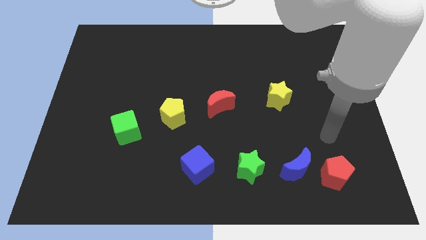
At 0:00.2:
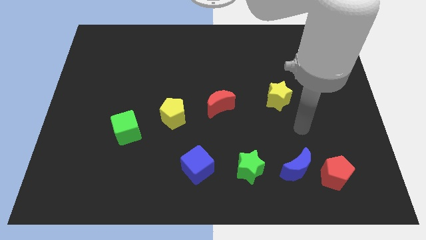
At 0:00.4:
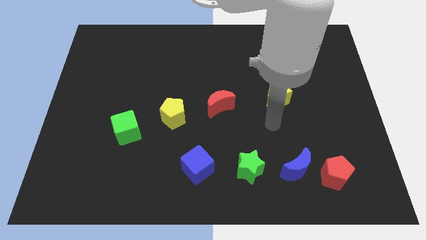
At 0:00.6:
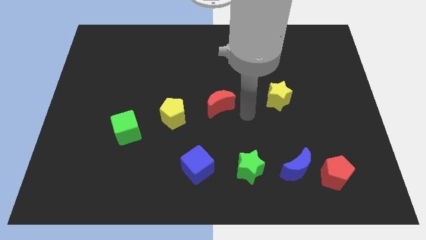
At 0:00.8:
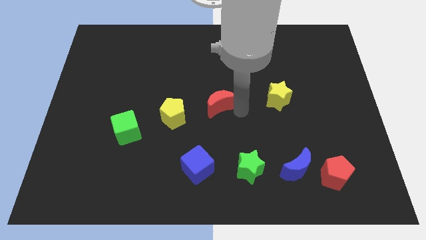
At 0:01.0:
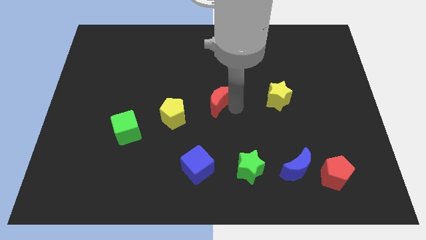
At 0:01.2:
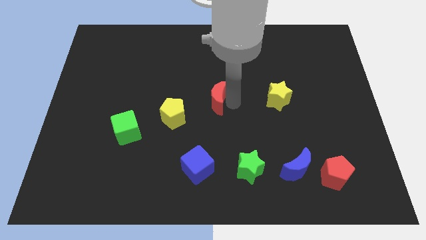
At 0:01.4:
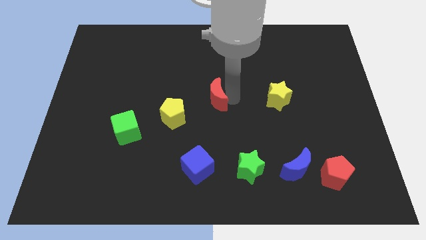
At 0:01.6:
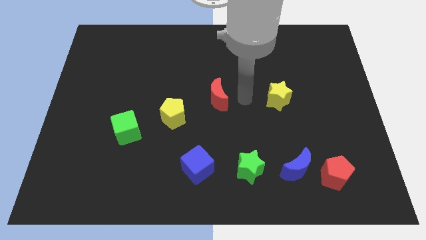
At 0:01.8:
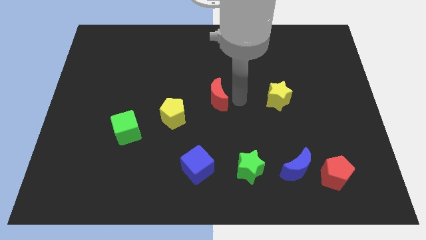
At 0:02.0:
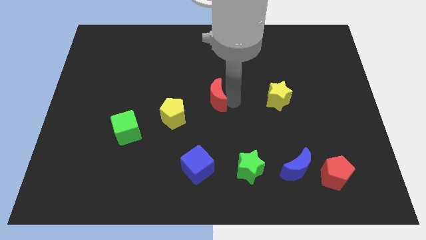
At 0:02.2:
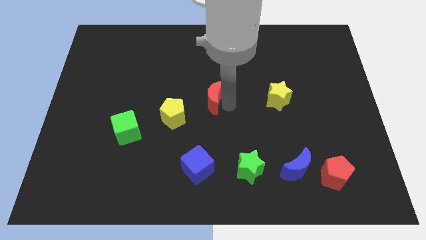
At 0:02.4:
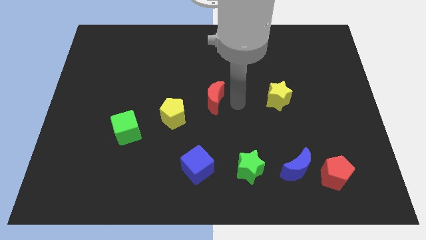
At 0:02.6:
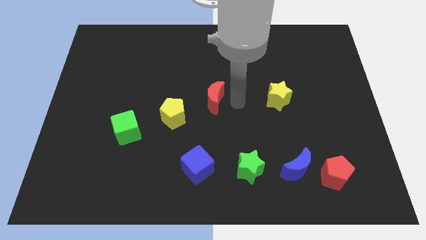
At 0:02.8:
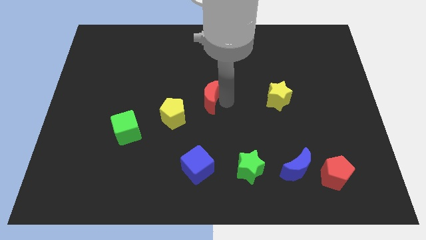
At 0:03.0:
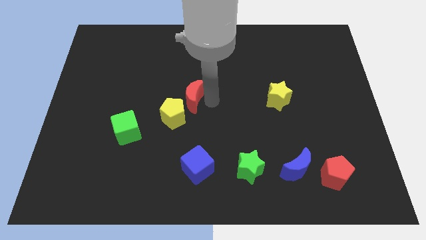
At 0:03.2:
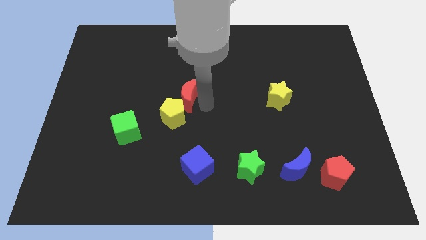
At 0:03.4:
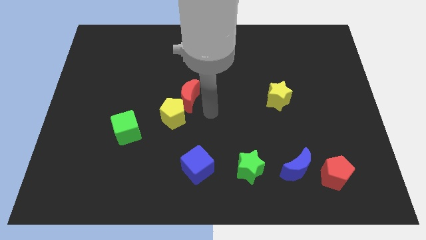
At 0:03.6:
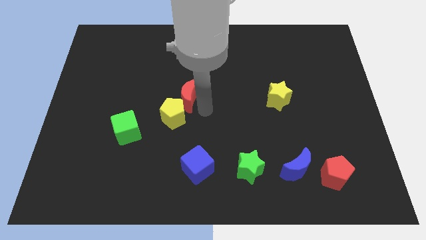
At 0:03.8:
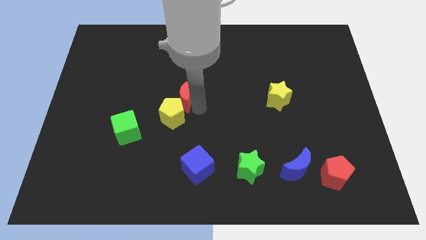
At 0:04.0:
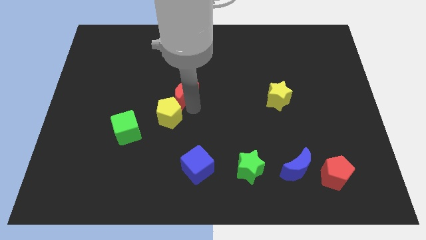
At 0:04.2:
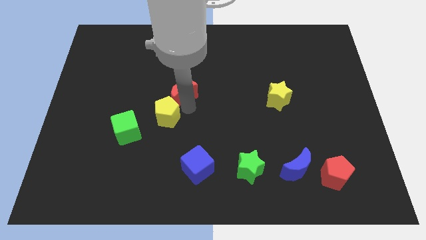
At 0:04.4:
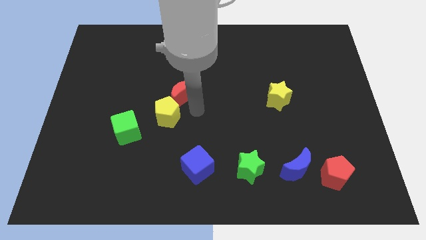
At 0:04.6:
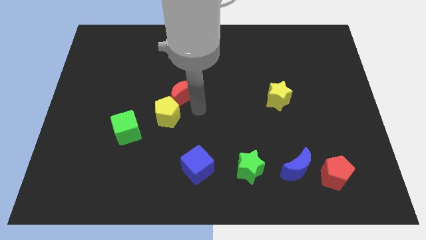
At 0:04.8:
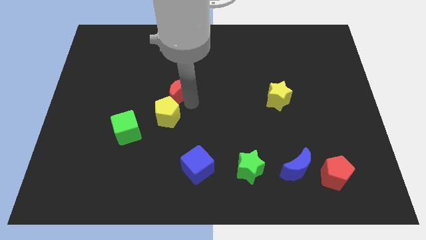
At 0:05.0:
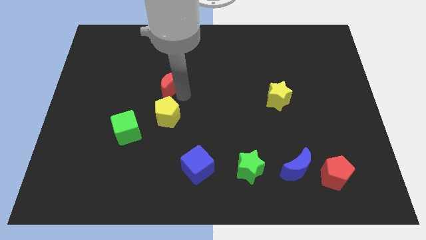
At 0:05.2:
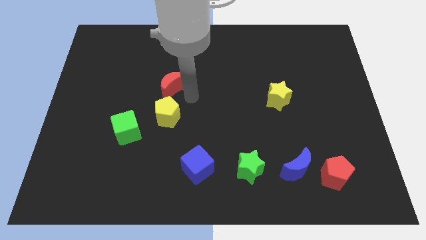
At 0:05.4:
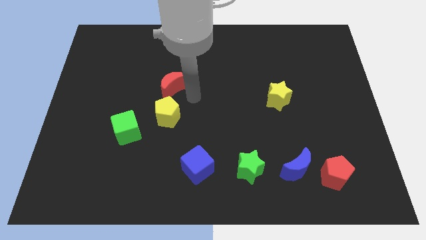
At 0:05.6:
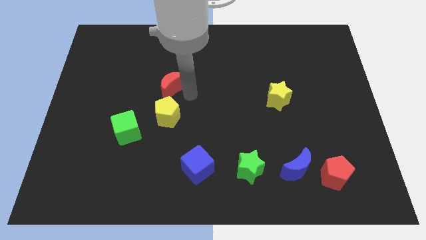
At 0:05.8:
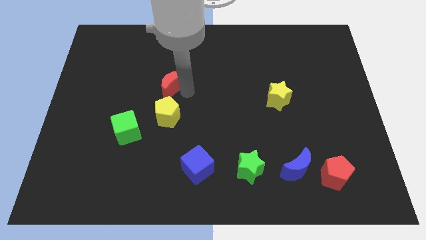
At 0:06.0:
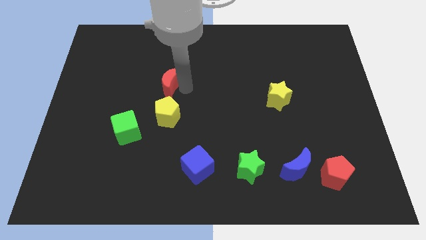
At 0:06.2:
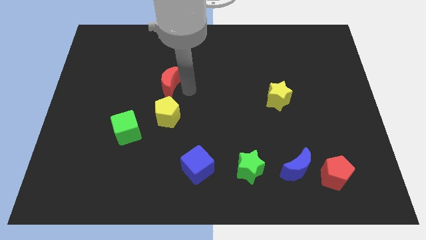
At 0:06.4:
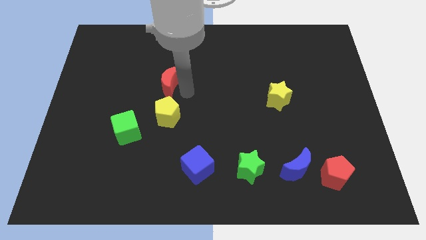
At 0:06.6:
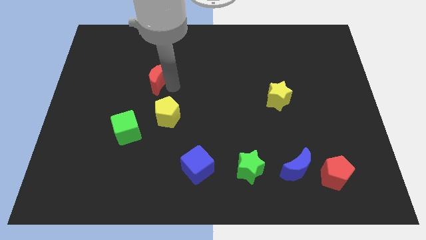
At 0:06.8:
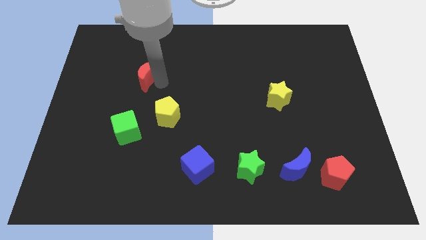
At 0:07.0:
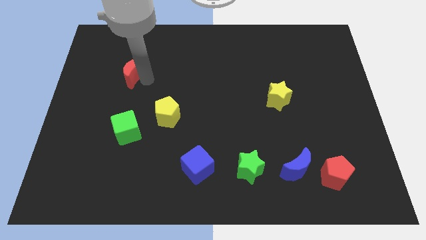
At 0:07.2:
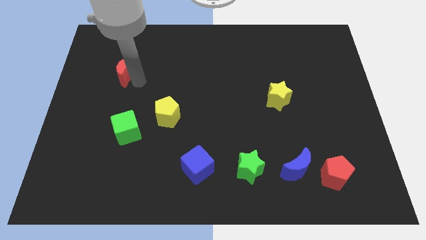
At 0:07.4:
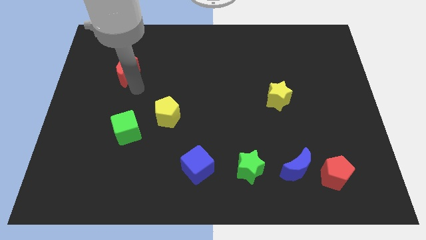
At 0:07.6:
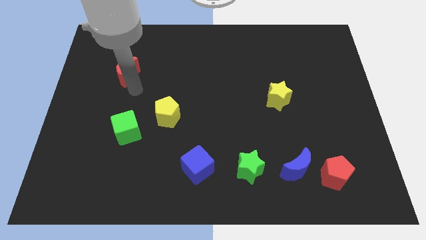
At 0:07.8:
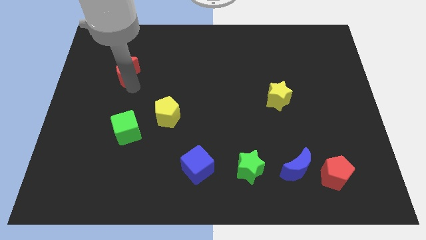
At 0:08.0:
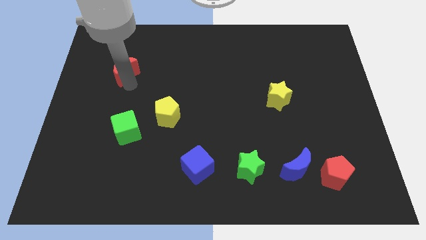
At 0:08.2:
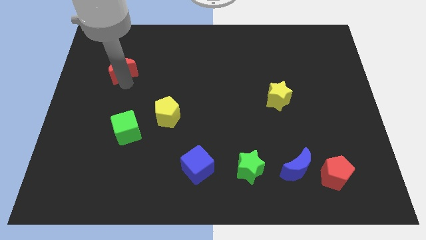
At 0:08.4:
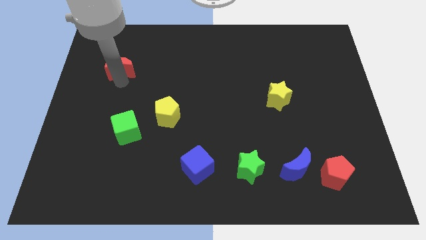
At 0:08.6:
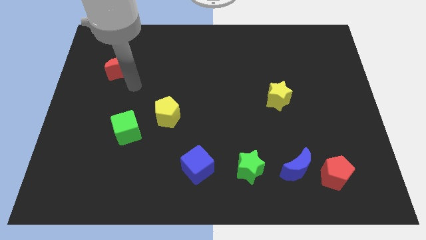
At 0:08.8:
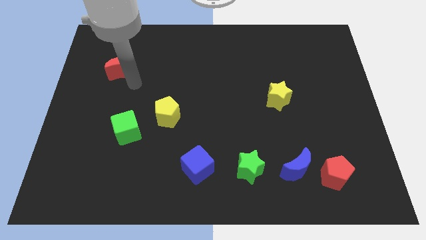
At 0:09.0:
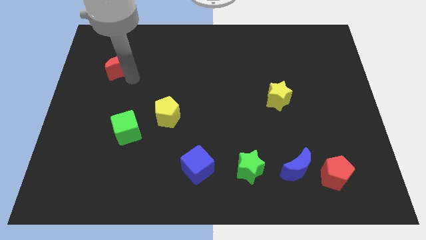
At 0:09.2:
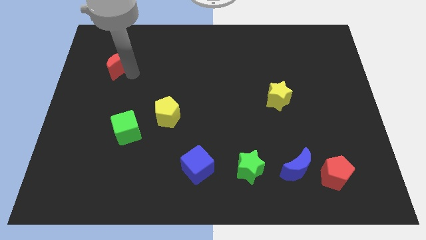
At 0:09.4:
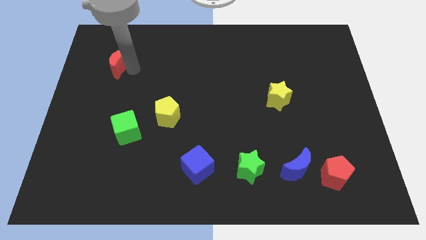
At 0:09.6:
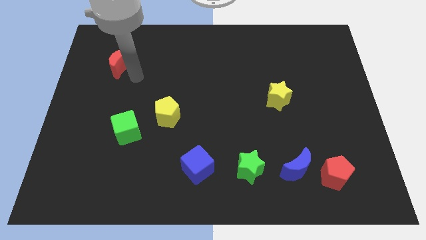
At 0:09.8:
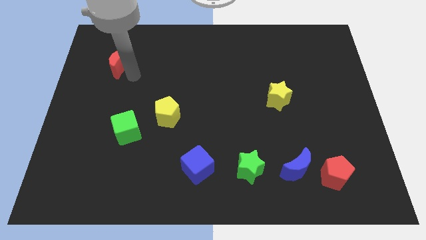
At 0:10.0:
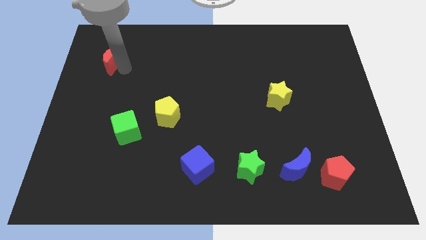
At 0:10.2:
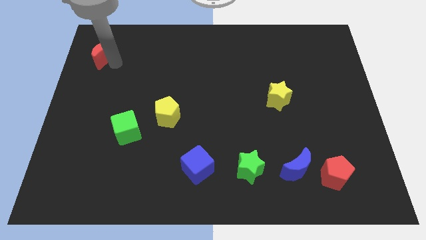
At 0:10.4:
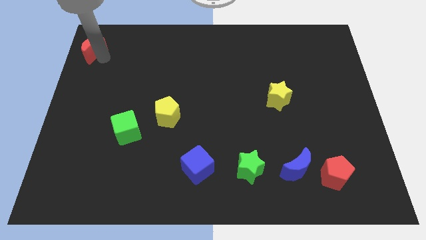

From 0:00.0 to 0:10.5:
put the red moon to the top left
